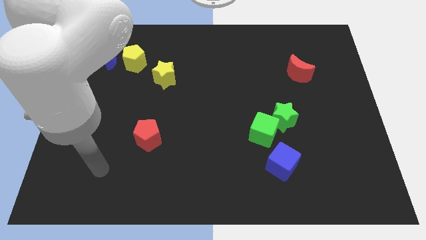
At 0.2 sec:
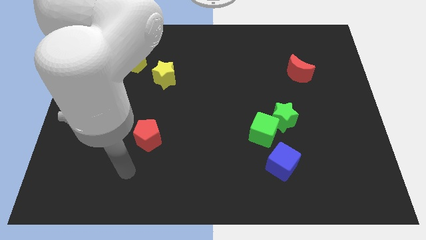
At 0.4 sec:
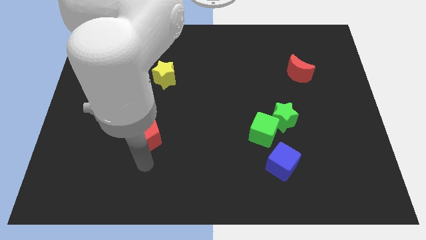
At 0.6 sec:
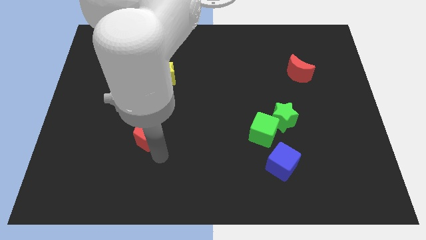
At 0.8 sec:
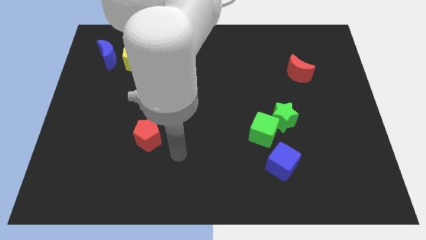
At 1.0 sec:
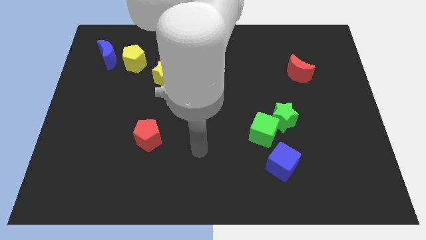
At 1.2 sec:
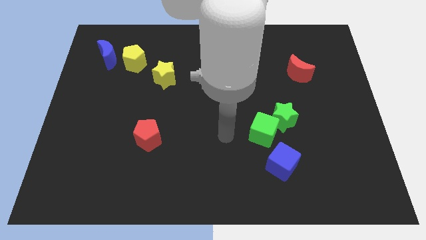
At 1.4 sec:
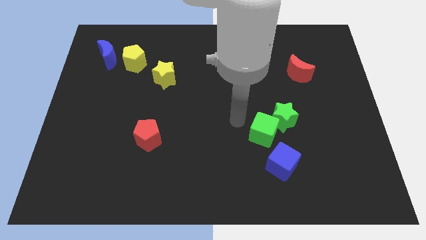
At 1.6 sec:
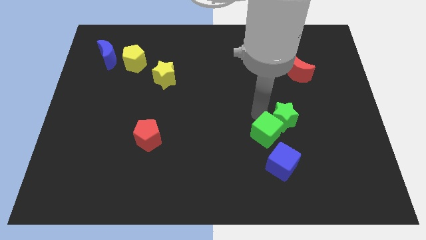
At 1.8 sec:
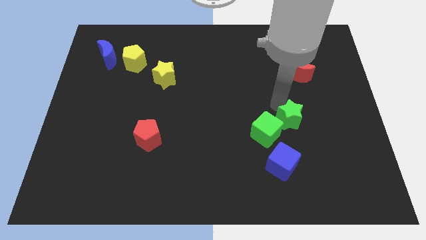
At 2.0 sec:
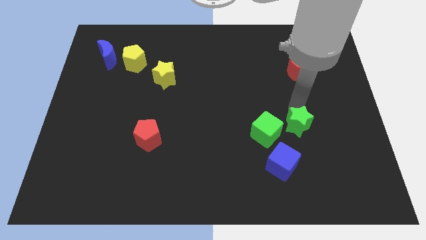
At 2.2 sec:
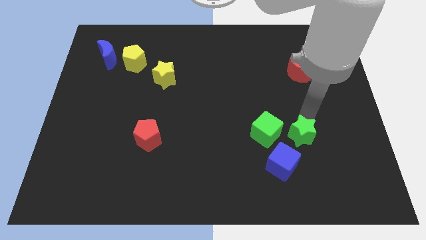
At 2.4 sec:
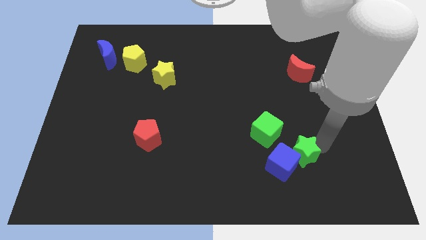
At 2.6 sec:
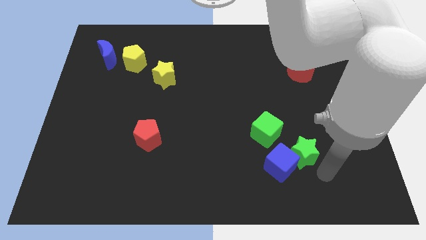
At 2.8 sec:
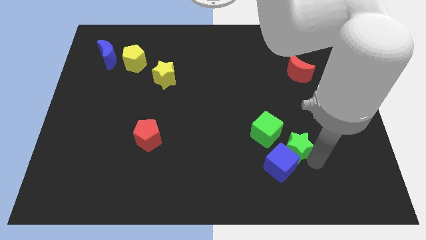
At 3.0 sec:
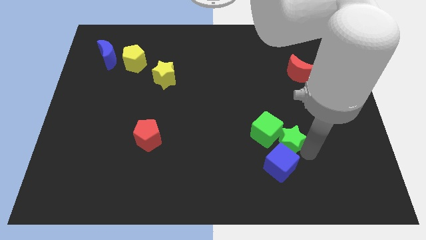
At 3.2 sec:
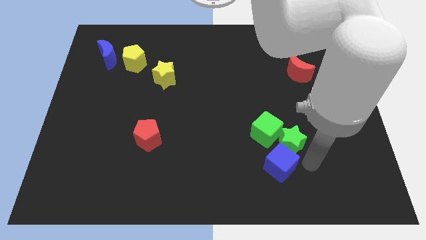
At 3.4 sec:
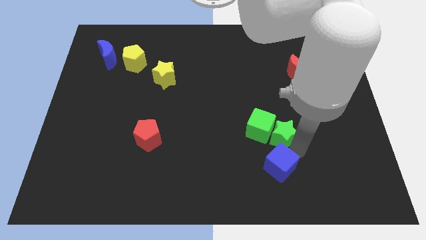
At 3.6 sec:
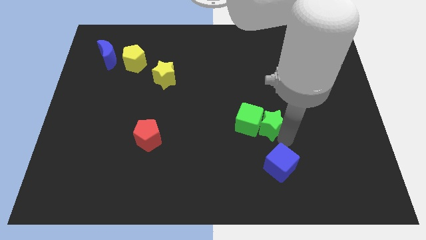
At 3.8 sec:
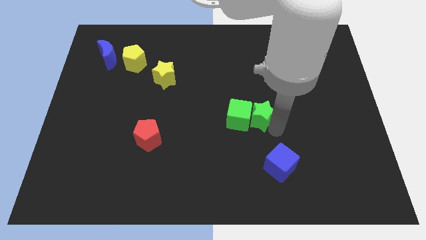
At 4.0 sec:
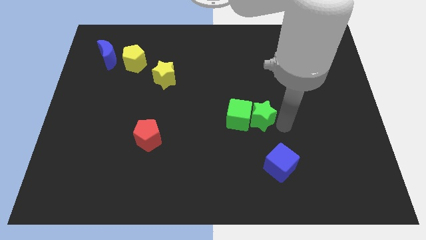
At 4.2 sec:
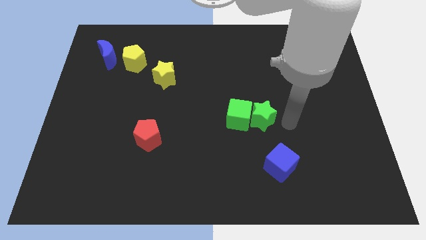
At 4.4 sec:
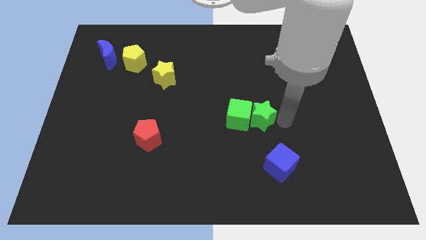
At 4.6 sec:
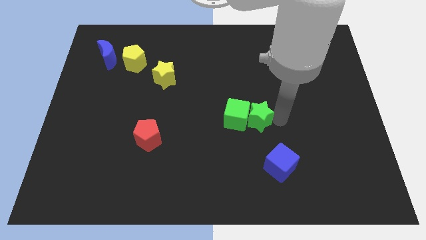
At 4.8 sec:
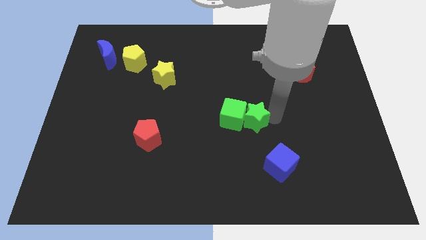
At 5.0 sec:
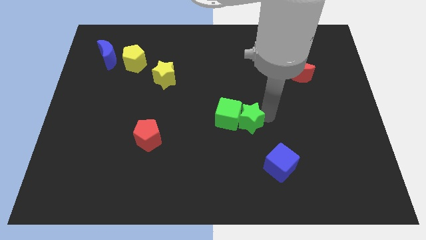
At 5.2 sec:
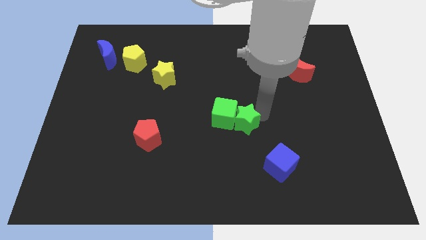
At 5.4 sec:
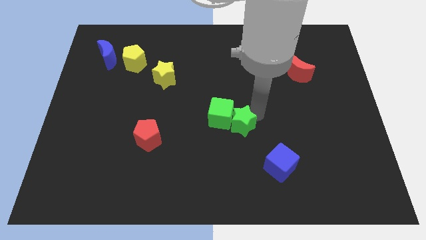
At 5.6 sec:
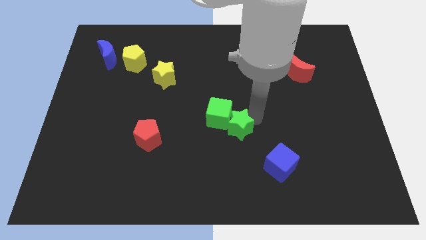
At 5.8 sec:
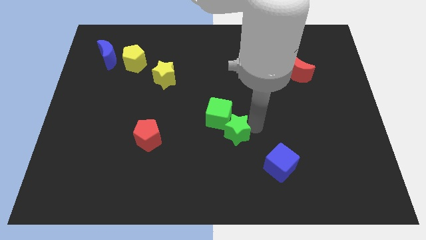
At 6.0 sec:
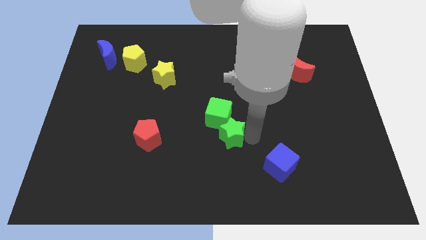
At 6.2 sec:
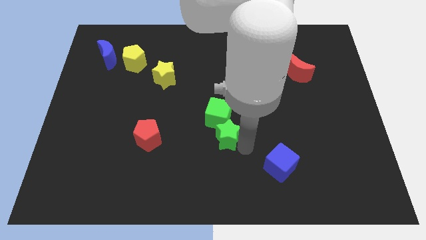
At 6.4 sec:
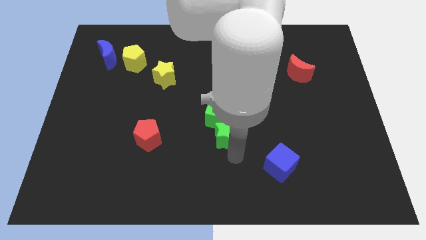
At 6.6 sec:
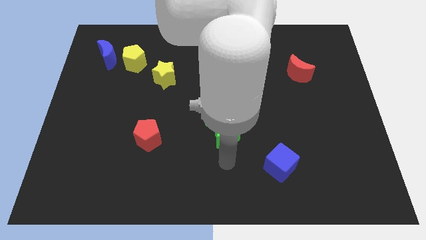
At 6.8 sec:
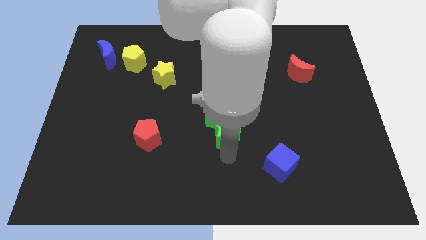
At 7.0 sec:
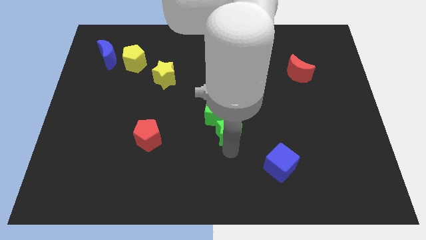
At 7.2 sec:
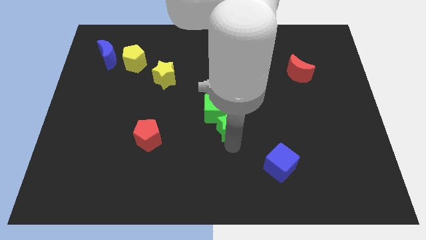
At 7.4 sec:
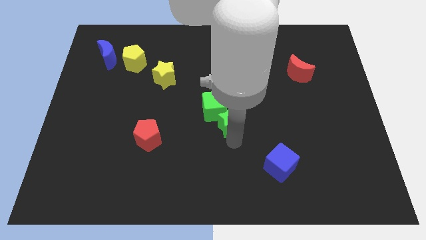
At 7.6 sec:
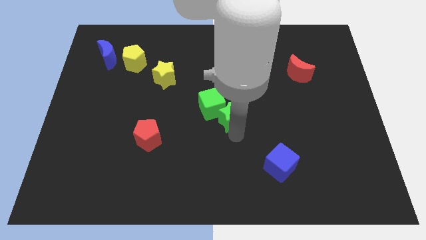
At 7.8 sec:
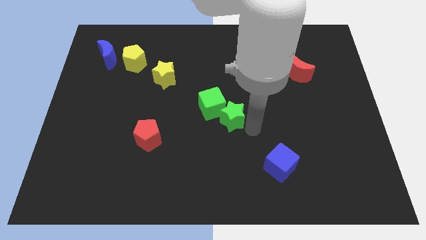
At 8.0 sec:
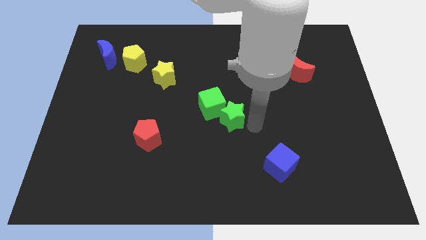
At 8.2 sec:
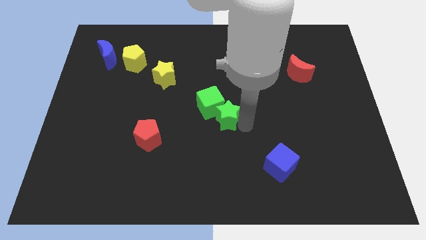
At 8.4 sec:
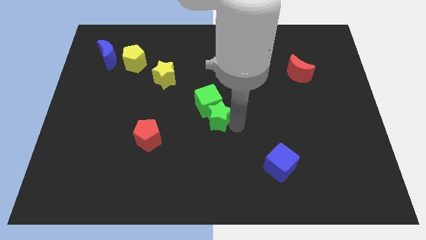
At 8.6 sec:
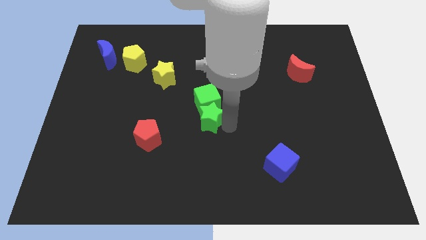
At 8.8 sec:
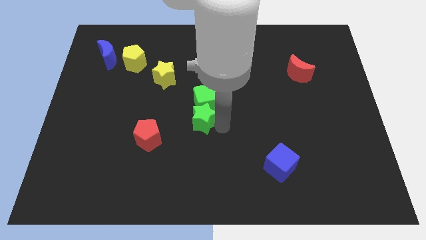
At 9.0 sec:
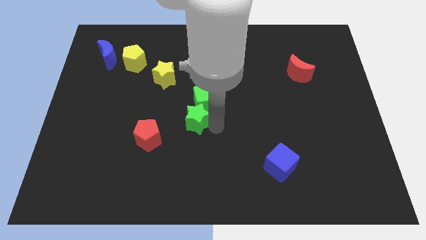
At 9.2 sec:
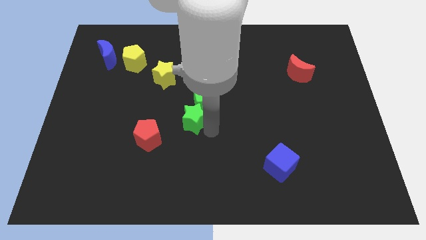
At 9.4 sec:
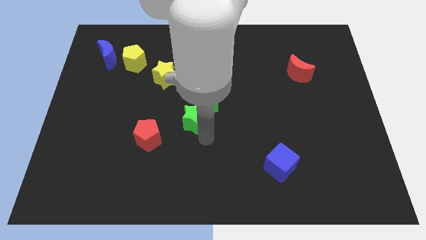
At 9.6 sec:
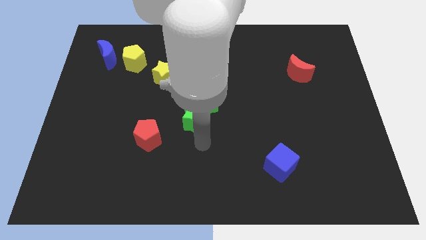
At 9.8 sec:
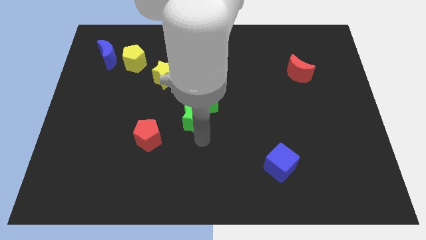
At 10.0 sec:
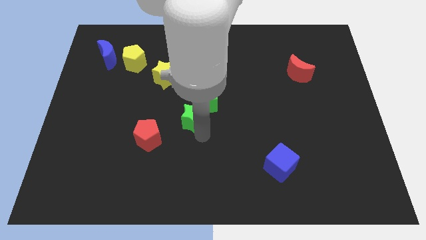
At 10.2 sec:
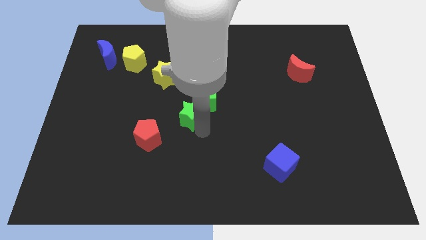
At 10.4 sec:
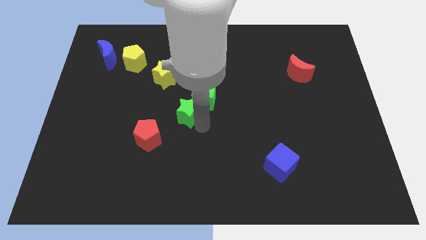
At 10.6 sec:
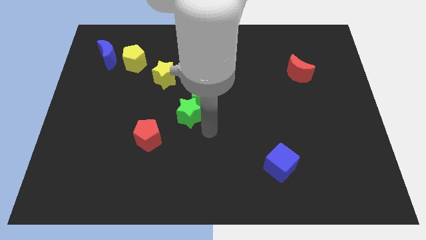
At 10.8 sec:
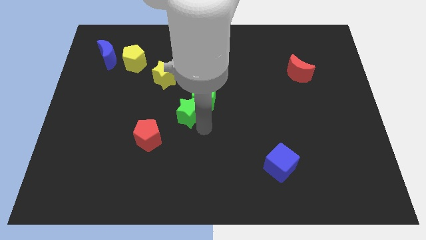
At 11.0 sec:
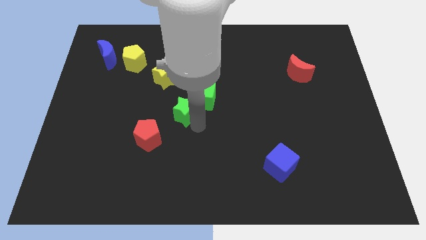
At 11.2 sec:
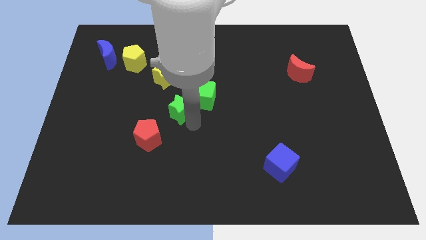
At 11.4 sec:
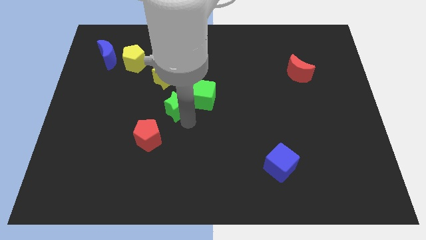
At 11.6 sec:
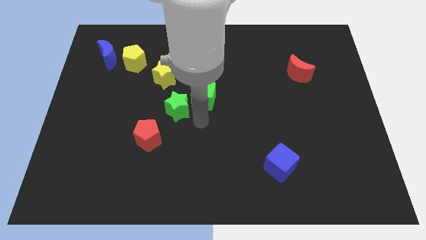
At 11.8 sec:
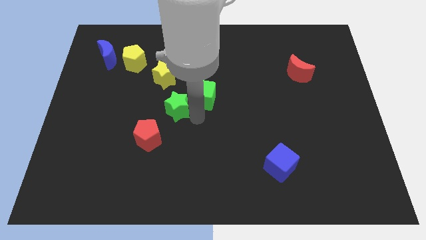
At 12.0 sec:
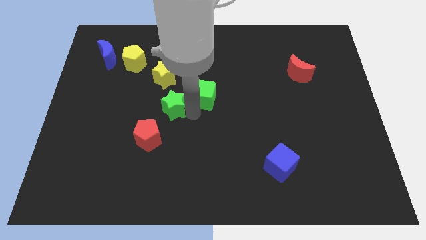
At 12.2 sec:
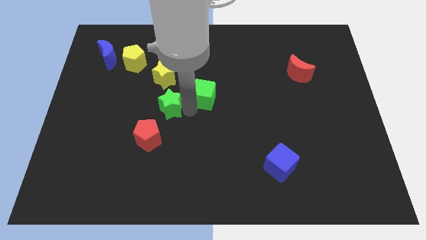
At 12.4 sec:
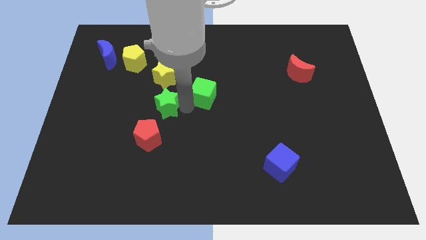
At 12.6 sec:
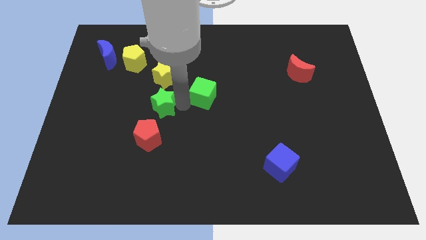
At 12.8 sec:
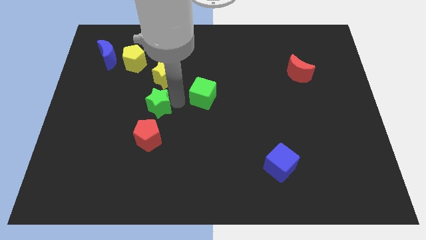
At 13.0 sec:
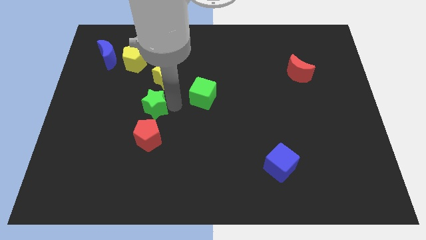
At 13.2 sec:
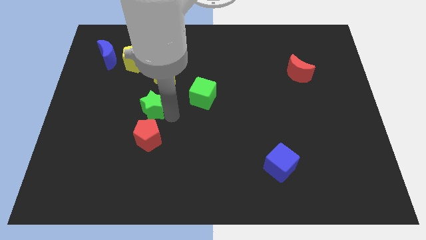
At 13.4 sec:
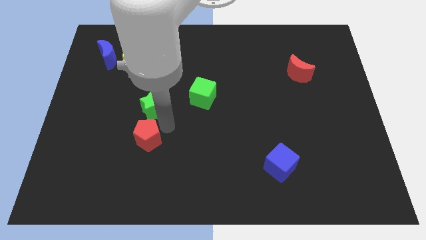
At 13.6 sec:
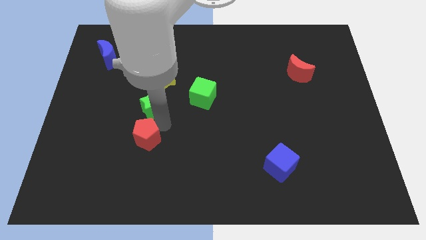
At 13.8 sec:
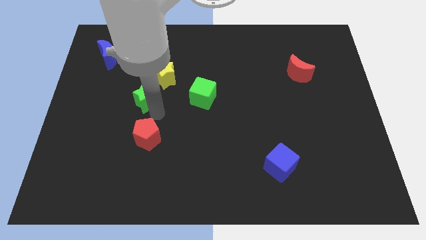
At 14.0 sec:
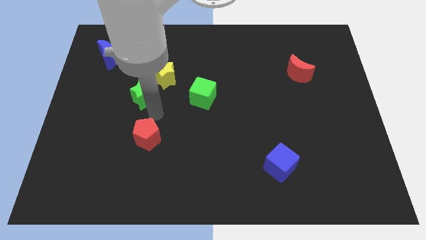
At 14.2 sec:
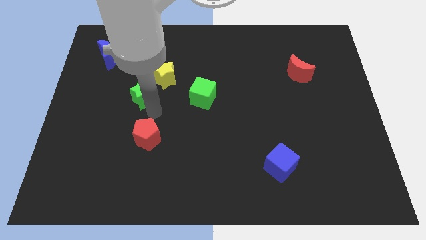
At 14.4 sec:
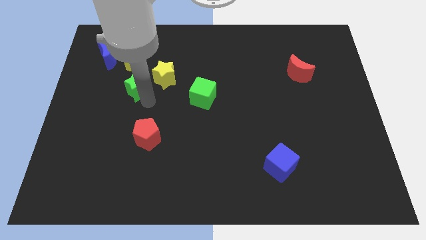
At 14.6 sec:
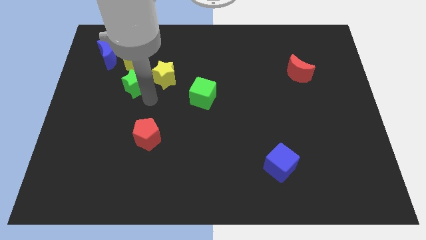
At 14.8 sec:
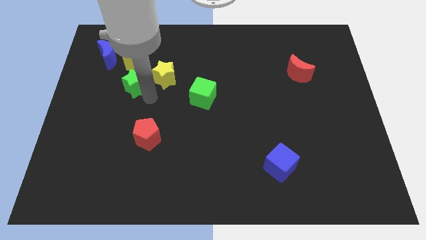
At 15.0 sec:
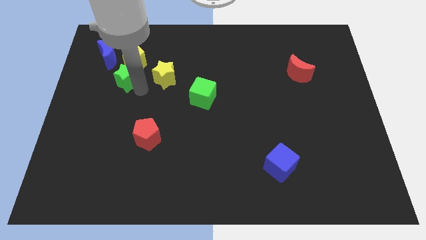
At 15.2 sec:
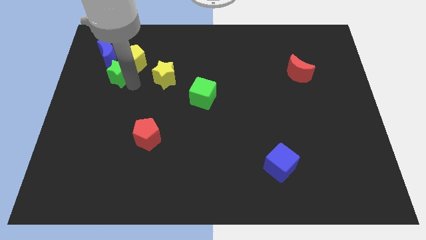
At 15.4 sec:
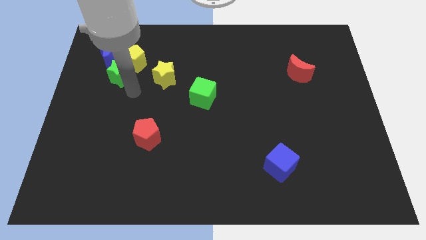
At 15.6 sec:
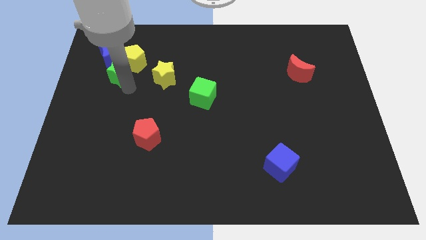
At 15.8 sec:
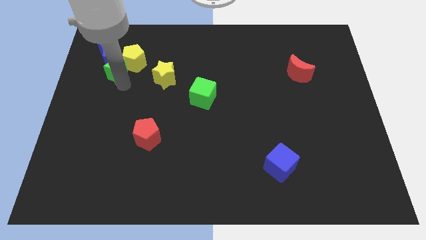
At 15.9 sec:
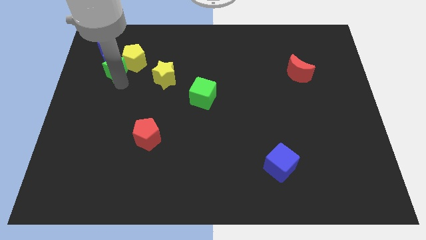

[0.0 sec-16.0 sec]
put the green star next to the blue moon
